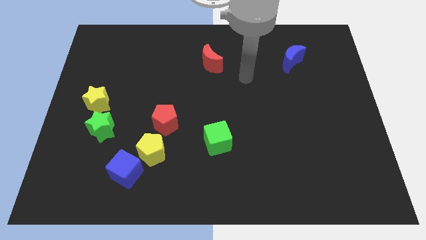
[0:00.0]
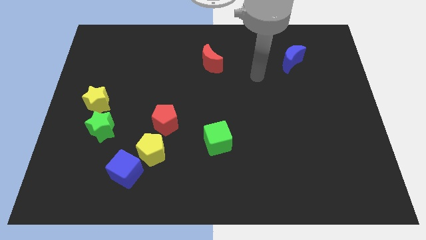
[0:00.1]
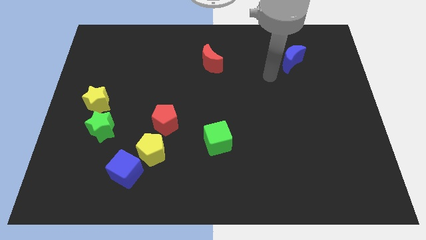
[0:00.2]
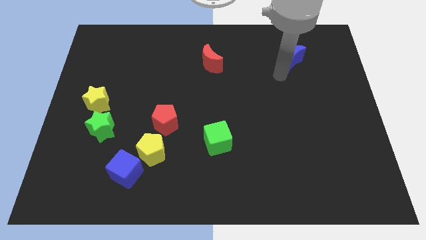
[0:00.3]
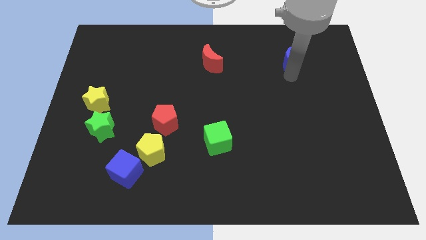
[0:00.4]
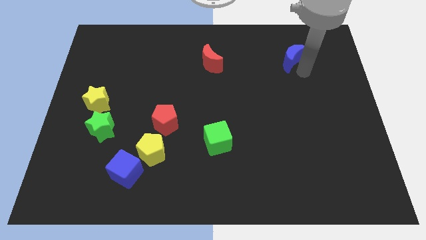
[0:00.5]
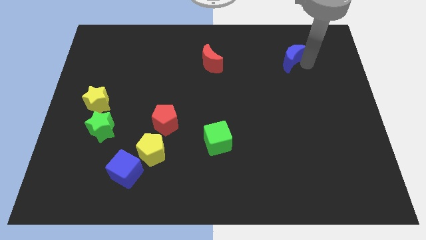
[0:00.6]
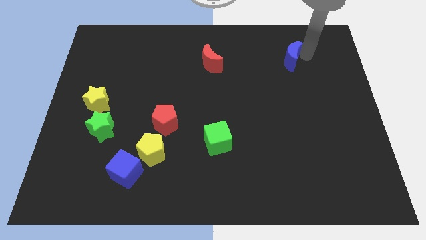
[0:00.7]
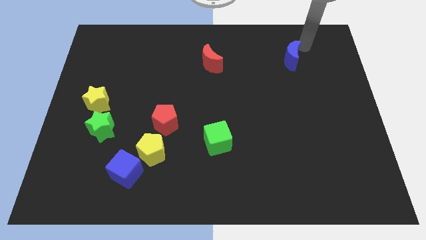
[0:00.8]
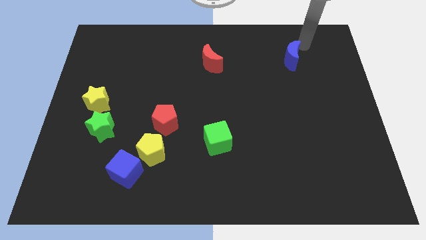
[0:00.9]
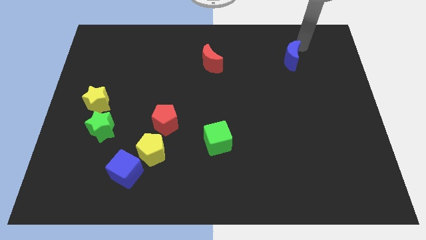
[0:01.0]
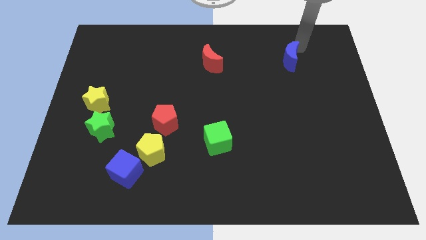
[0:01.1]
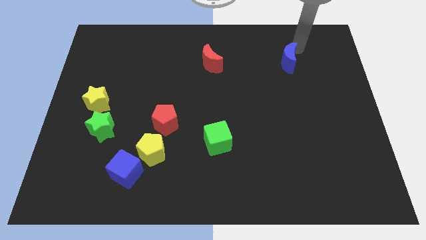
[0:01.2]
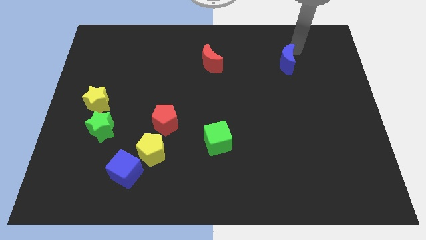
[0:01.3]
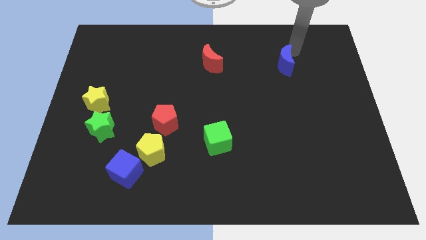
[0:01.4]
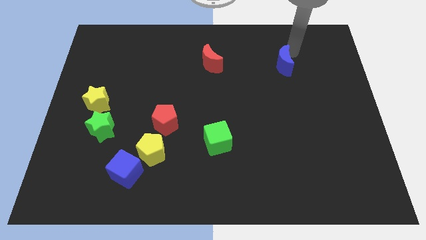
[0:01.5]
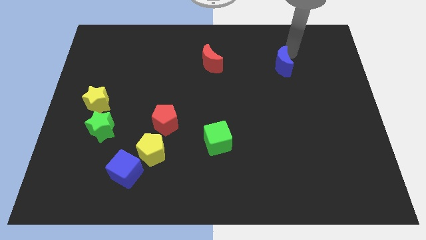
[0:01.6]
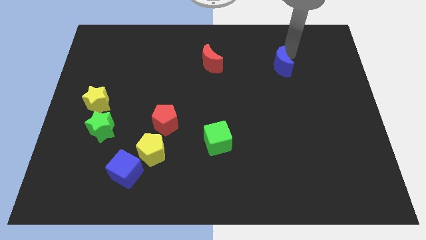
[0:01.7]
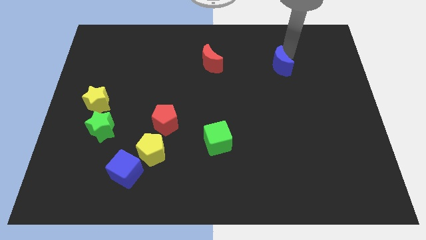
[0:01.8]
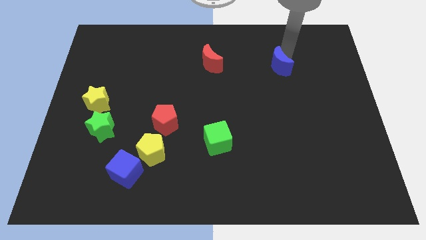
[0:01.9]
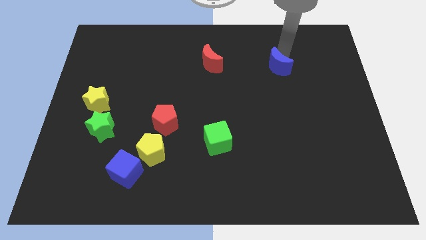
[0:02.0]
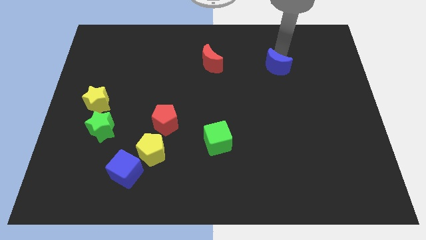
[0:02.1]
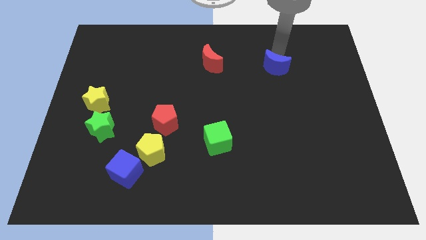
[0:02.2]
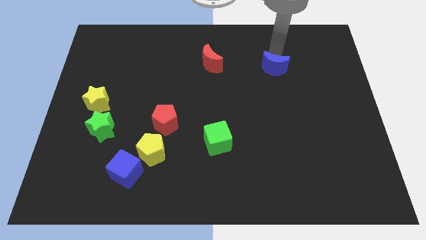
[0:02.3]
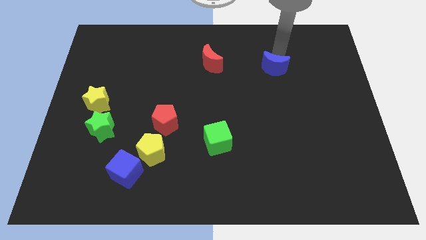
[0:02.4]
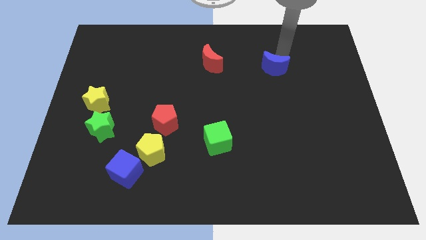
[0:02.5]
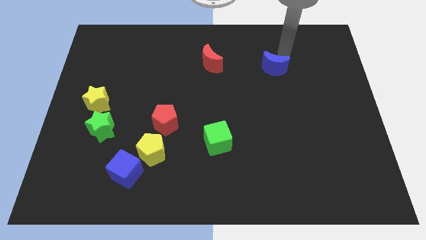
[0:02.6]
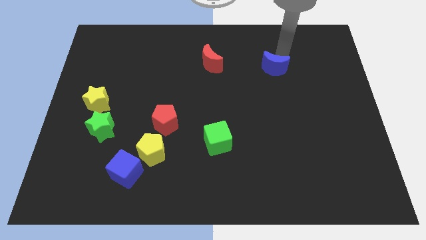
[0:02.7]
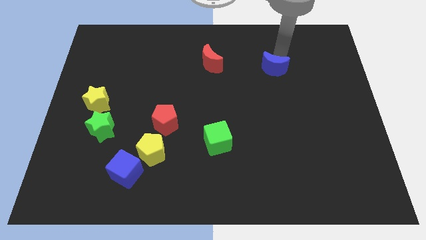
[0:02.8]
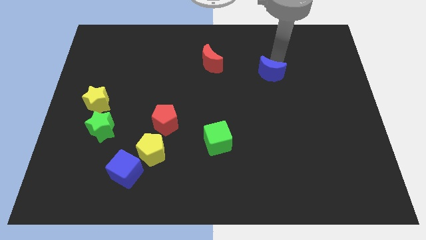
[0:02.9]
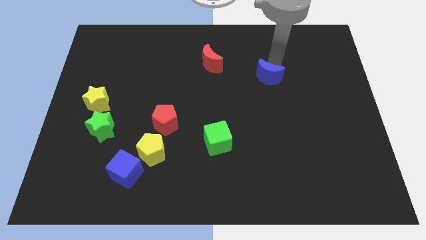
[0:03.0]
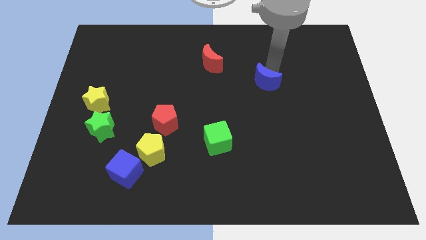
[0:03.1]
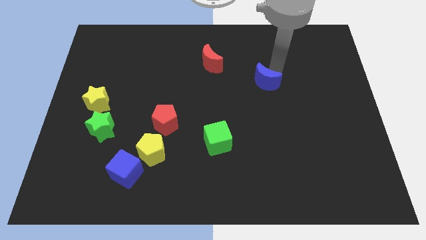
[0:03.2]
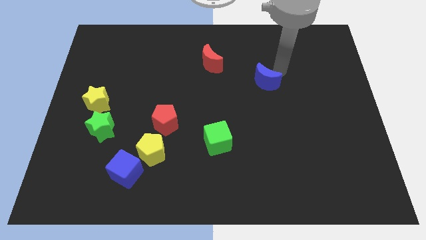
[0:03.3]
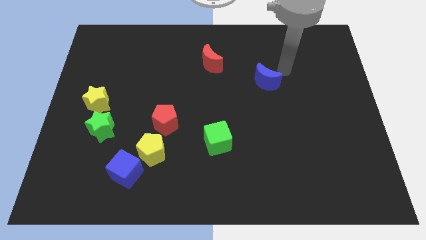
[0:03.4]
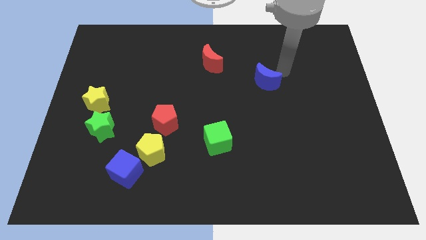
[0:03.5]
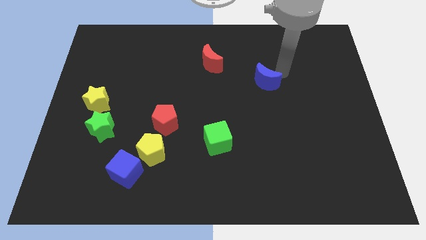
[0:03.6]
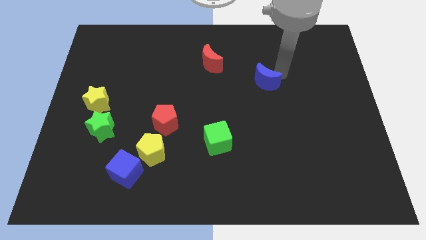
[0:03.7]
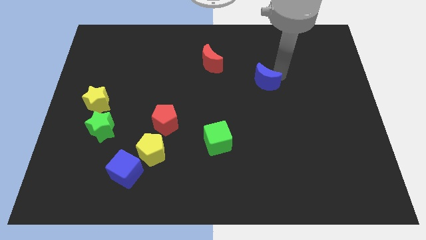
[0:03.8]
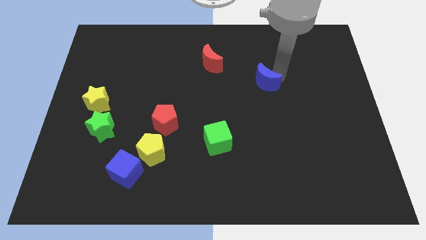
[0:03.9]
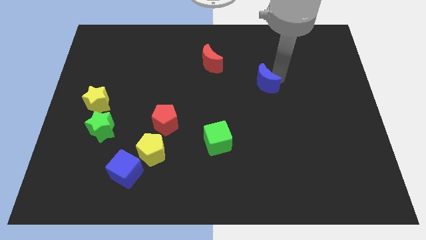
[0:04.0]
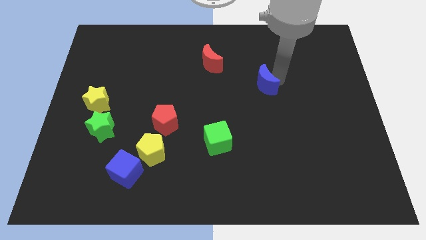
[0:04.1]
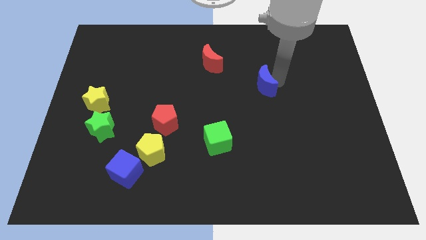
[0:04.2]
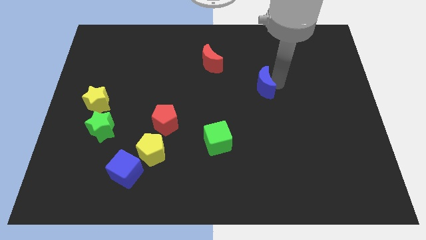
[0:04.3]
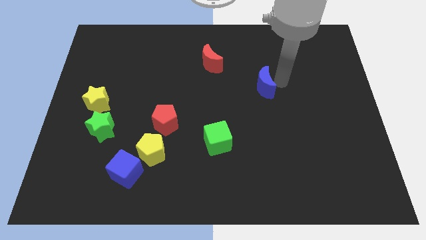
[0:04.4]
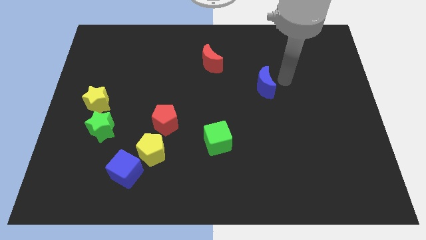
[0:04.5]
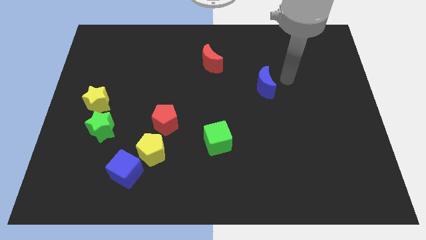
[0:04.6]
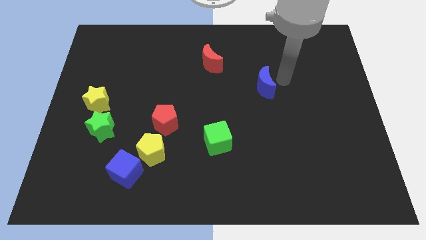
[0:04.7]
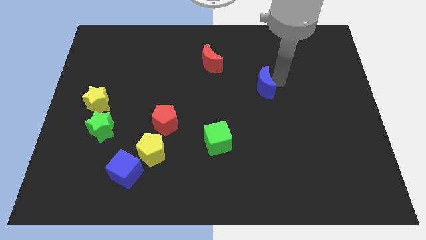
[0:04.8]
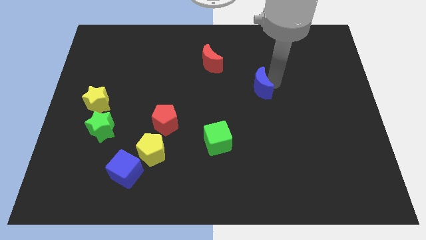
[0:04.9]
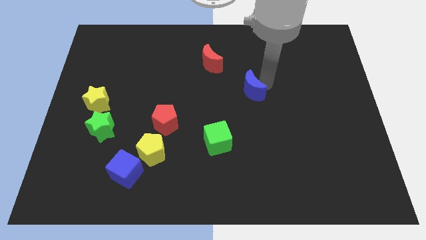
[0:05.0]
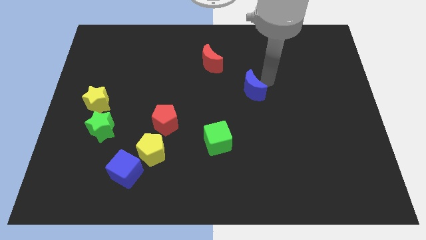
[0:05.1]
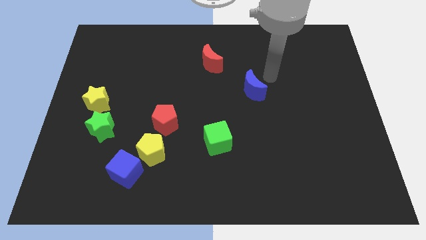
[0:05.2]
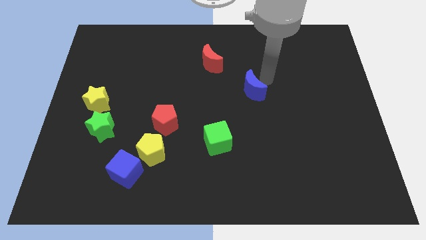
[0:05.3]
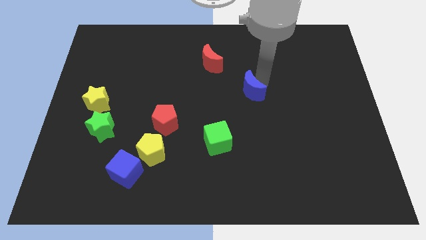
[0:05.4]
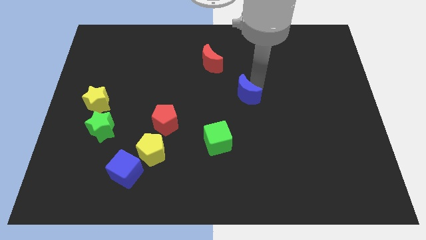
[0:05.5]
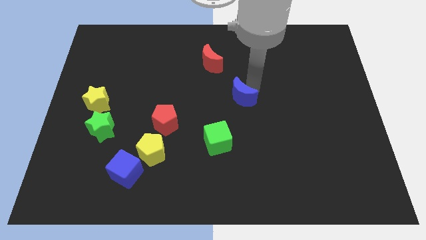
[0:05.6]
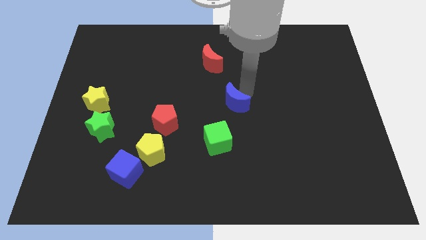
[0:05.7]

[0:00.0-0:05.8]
move the blue moon down and left

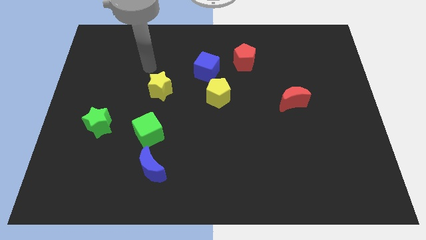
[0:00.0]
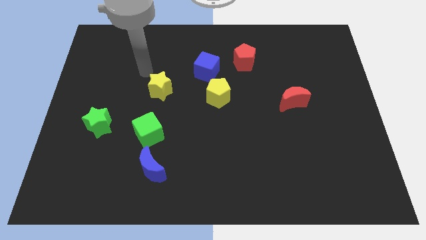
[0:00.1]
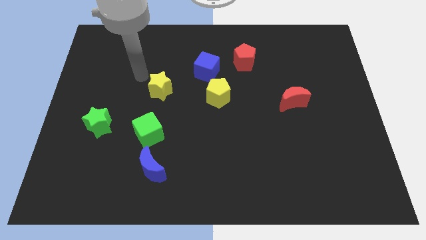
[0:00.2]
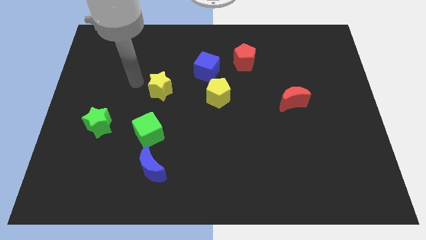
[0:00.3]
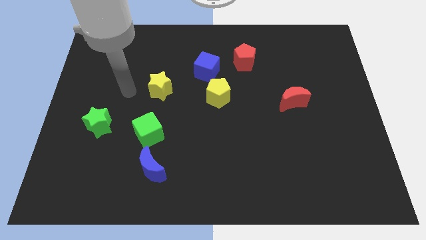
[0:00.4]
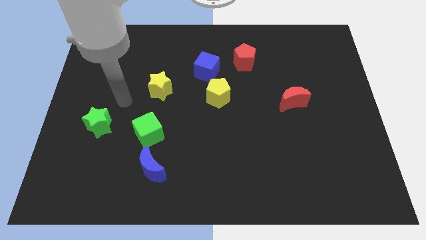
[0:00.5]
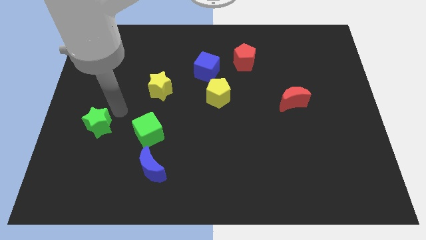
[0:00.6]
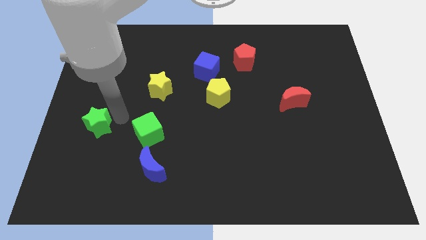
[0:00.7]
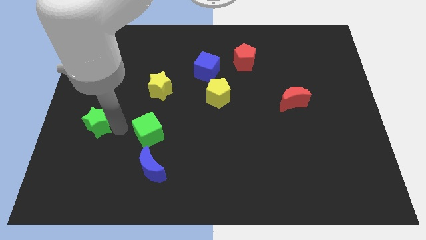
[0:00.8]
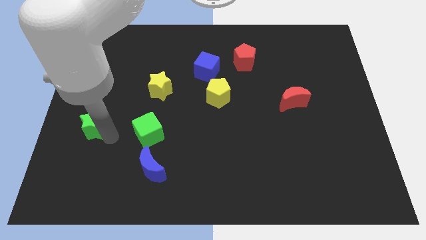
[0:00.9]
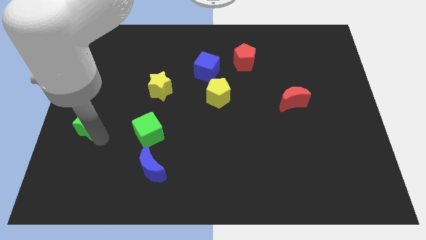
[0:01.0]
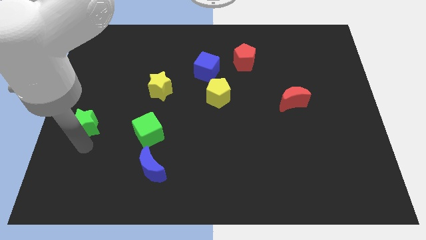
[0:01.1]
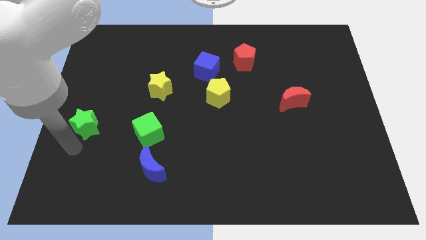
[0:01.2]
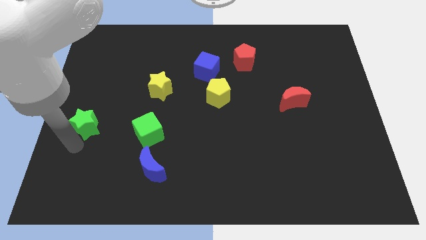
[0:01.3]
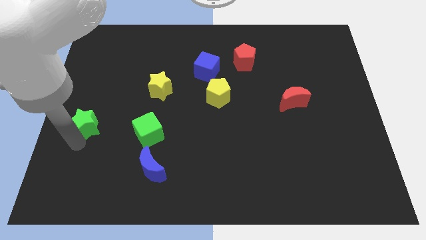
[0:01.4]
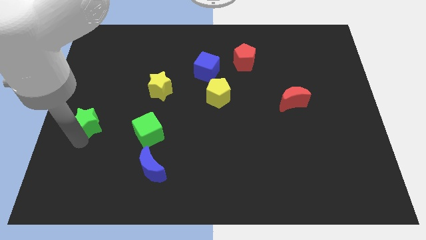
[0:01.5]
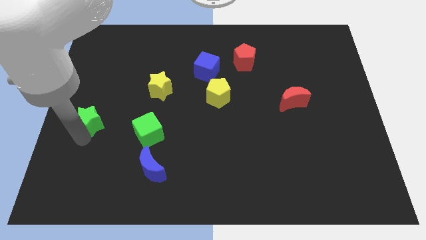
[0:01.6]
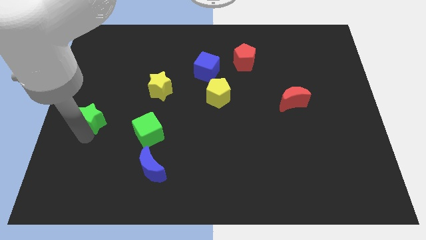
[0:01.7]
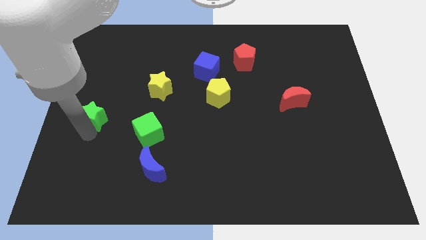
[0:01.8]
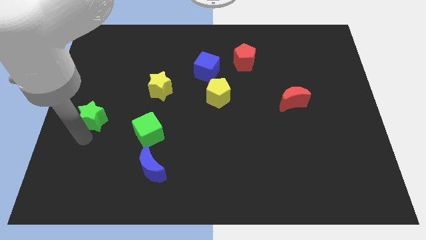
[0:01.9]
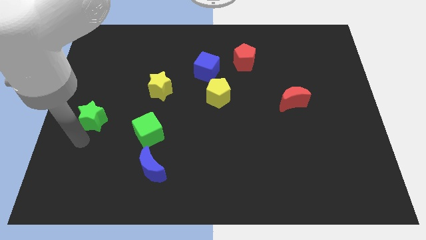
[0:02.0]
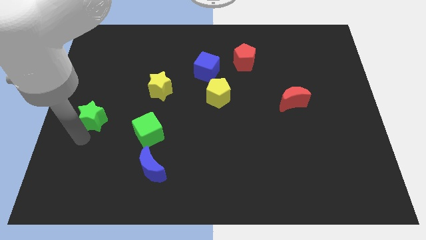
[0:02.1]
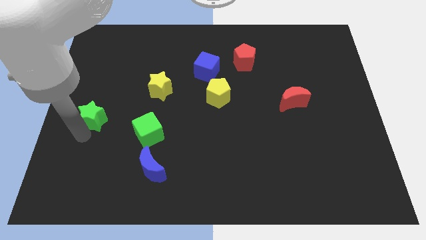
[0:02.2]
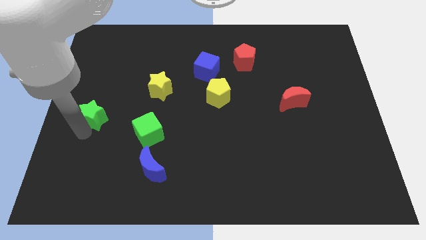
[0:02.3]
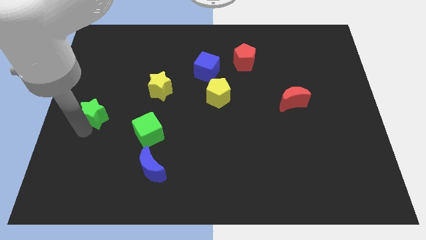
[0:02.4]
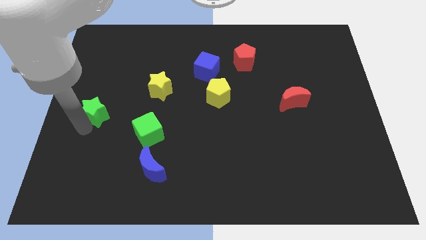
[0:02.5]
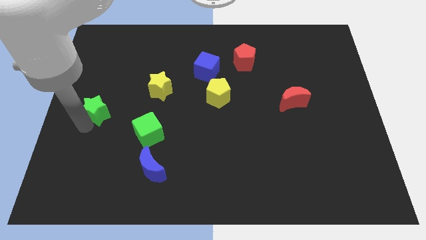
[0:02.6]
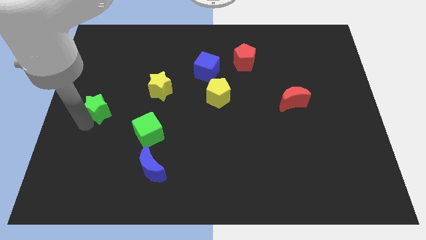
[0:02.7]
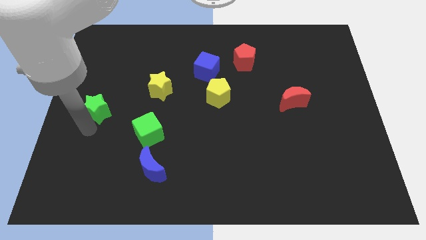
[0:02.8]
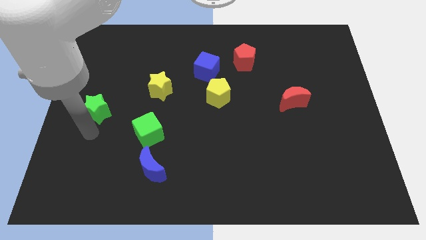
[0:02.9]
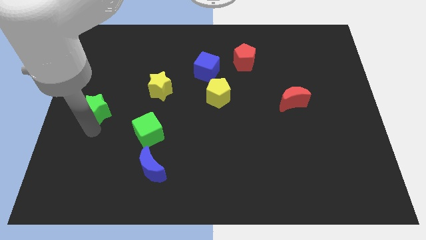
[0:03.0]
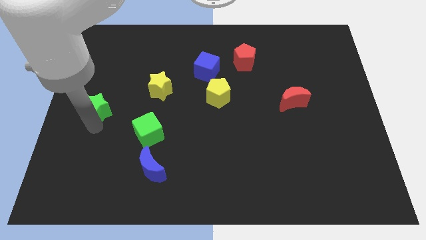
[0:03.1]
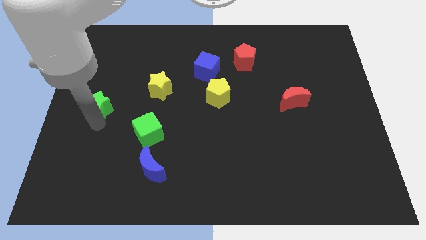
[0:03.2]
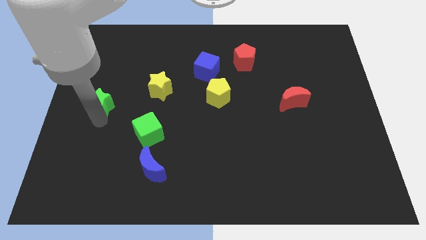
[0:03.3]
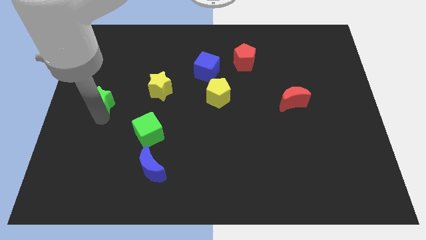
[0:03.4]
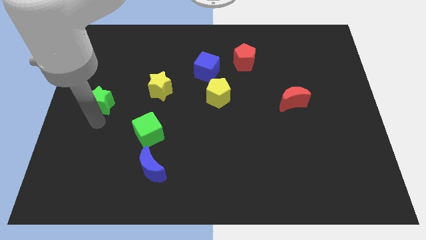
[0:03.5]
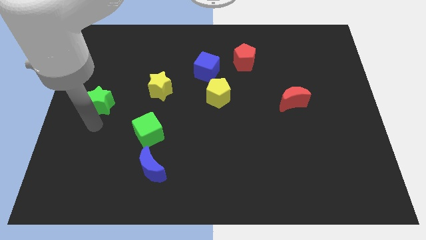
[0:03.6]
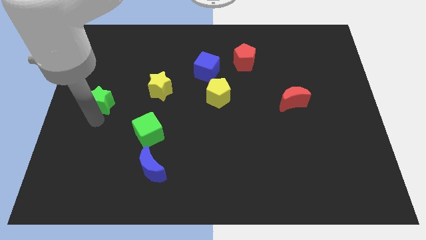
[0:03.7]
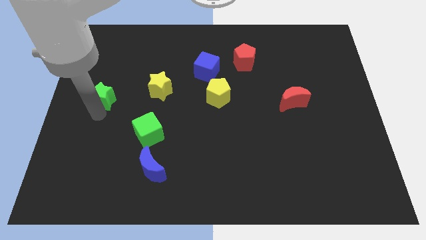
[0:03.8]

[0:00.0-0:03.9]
move the green star a little bit up
